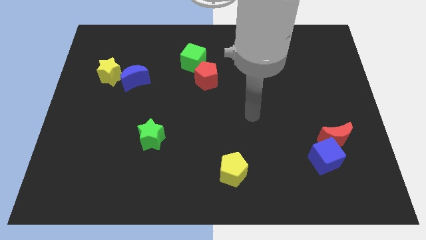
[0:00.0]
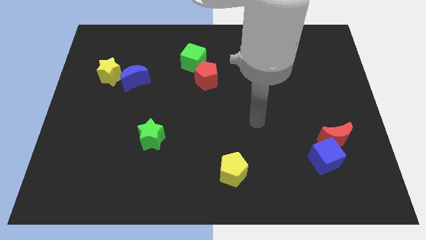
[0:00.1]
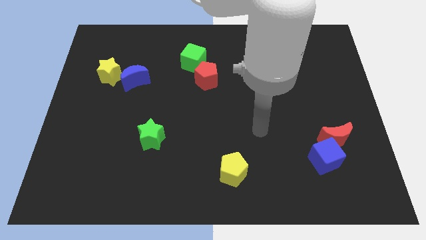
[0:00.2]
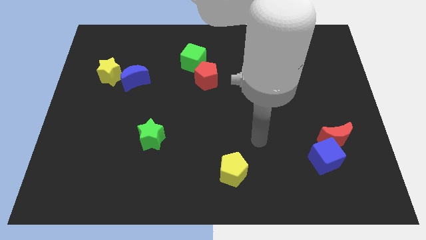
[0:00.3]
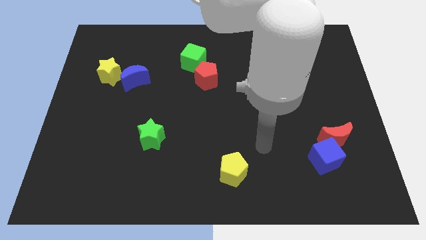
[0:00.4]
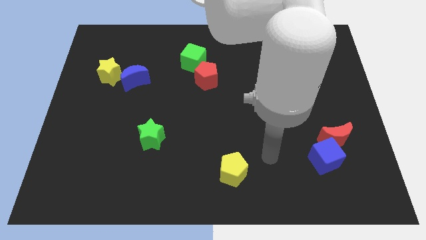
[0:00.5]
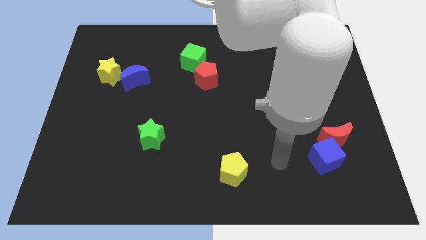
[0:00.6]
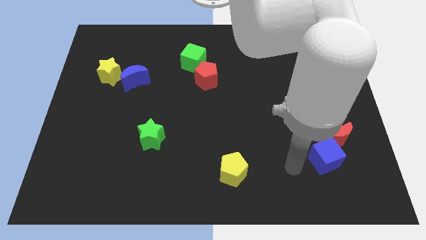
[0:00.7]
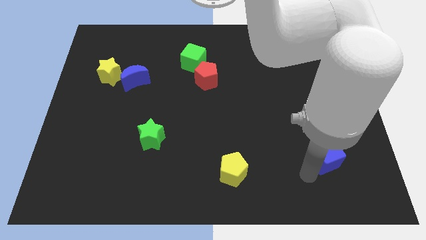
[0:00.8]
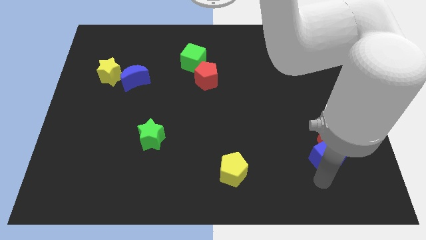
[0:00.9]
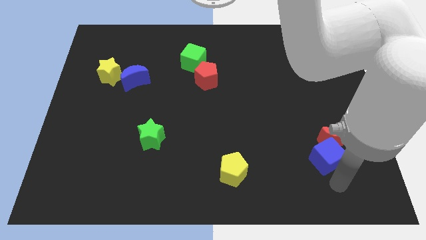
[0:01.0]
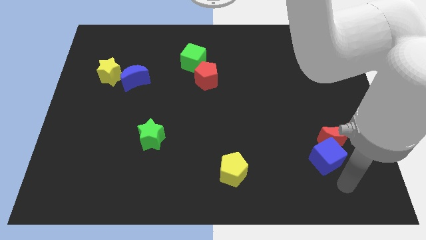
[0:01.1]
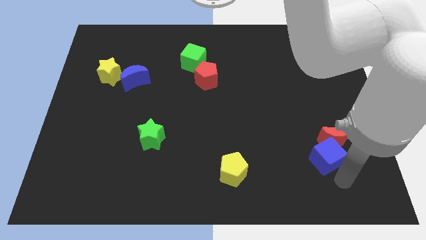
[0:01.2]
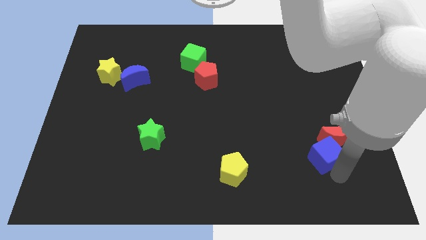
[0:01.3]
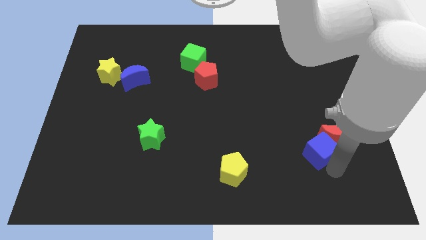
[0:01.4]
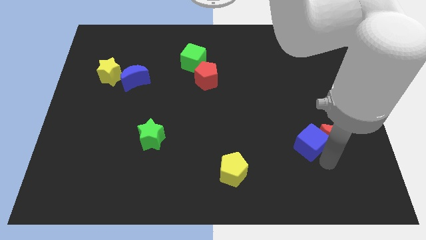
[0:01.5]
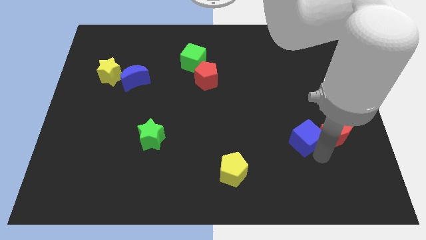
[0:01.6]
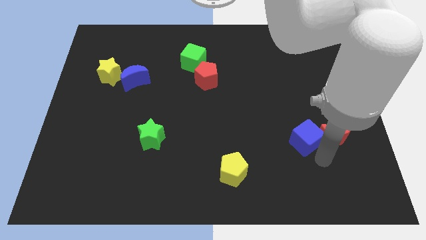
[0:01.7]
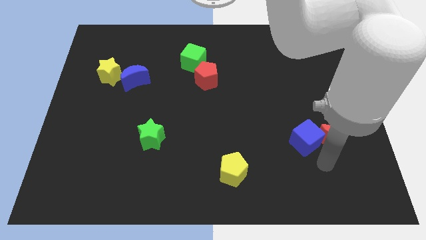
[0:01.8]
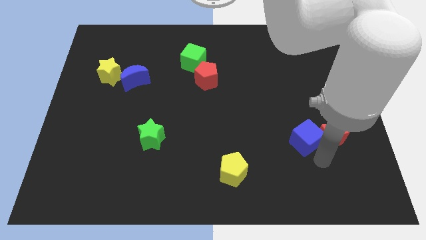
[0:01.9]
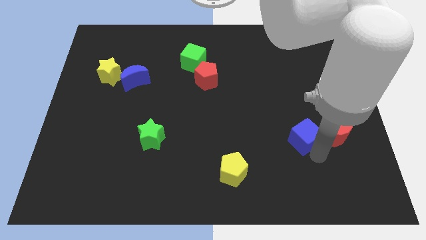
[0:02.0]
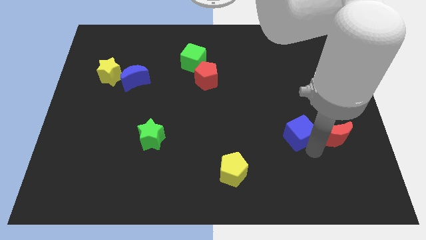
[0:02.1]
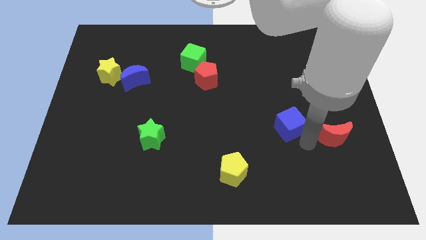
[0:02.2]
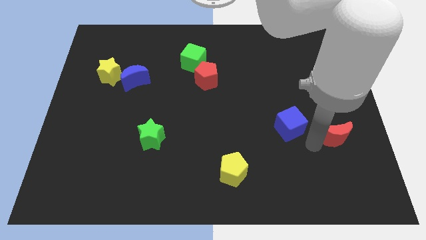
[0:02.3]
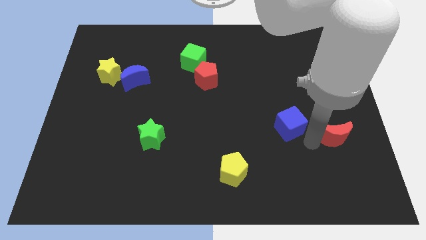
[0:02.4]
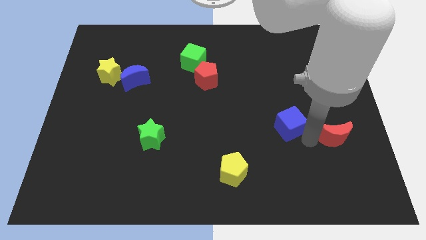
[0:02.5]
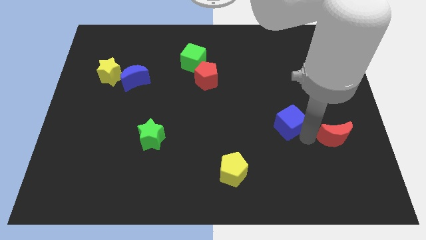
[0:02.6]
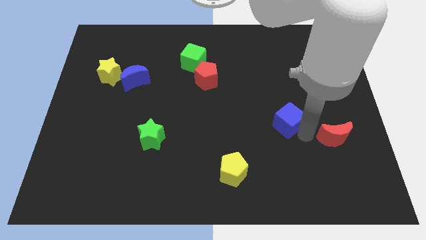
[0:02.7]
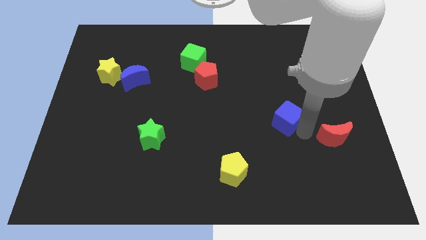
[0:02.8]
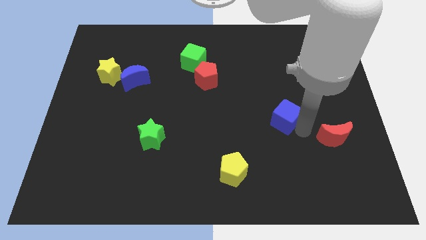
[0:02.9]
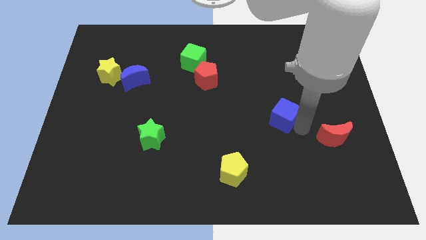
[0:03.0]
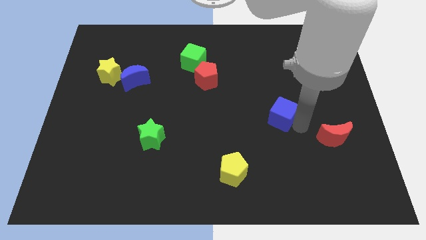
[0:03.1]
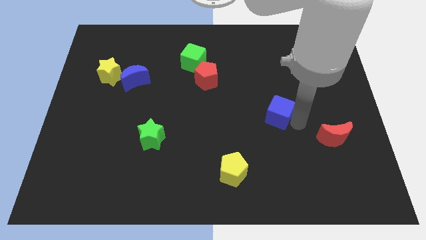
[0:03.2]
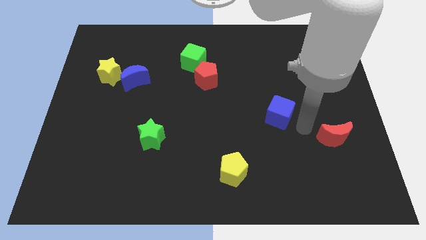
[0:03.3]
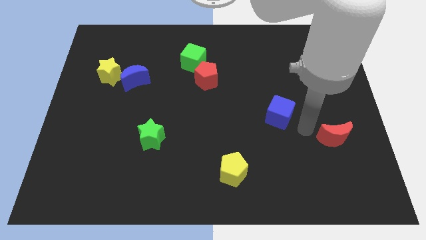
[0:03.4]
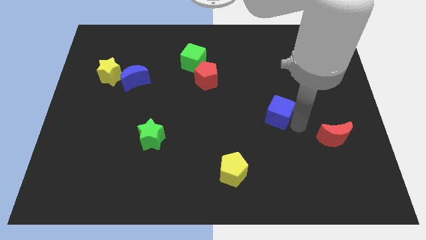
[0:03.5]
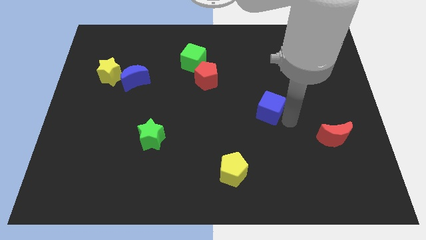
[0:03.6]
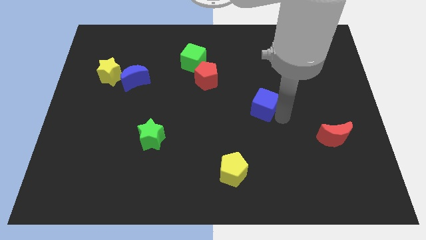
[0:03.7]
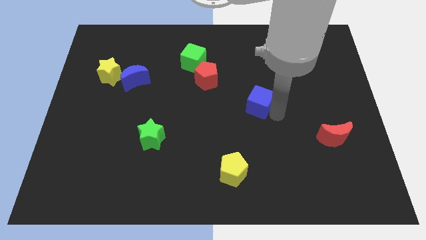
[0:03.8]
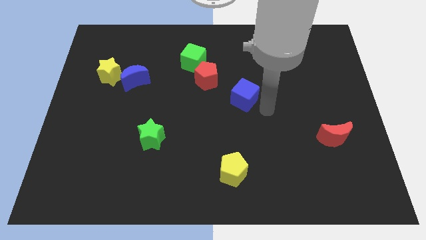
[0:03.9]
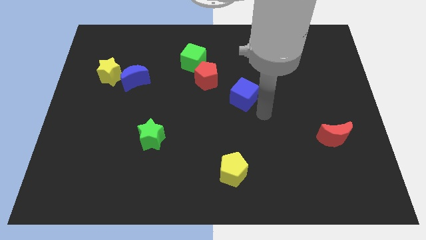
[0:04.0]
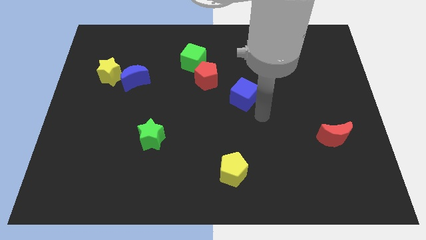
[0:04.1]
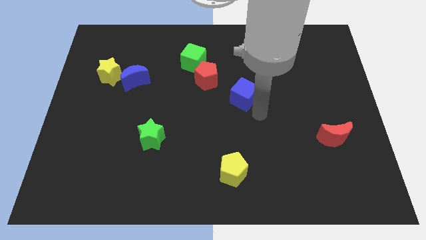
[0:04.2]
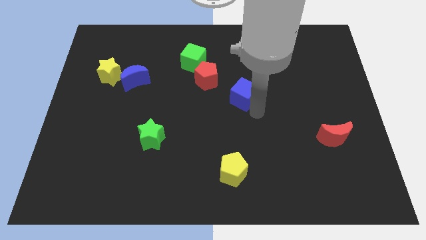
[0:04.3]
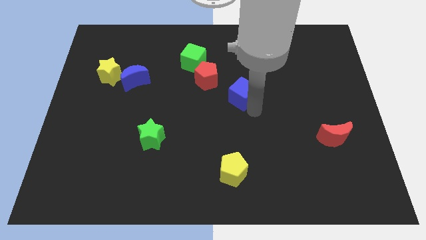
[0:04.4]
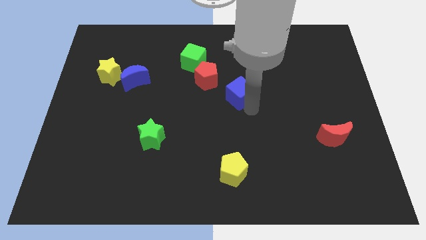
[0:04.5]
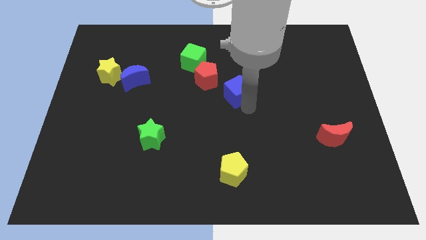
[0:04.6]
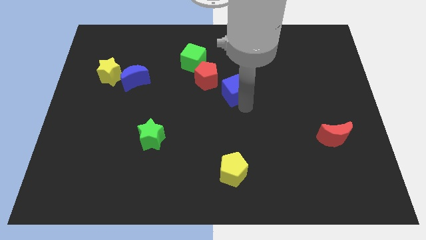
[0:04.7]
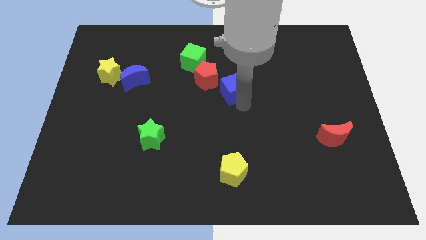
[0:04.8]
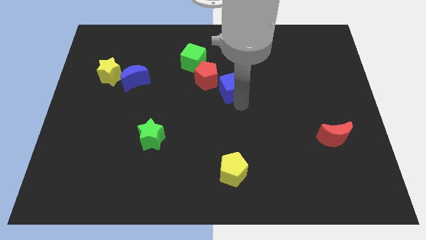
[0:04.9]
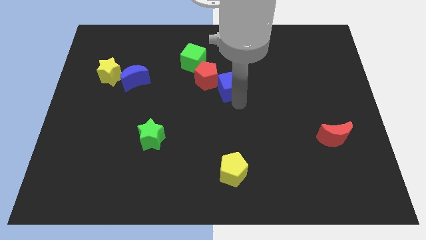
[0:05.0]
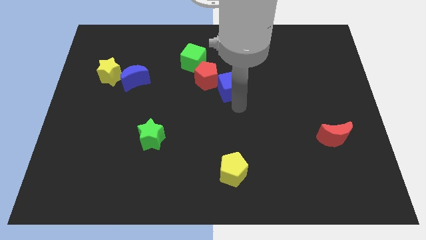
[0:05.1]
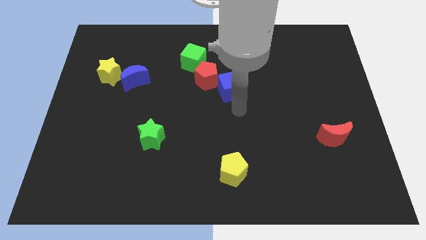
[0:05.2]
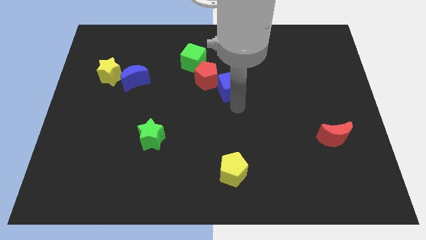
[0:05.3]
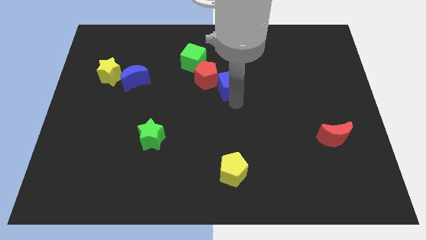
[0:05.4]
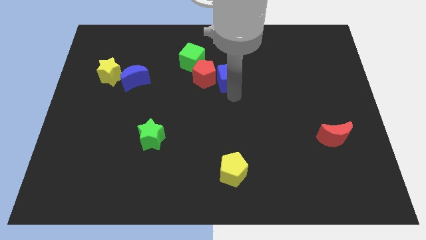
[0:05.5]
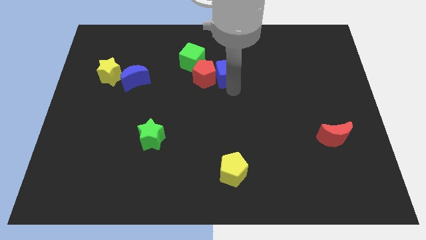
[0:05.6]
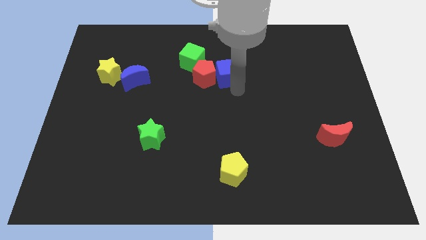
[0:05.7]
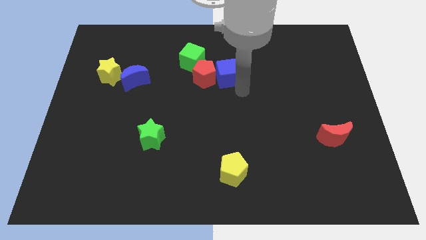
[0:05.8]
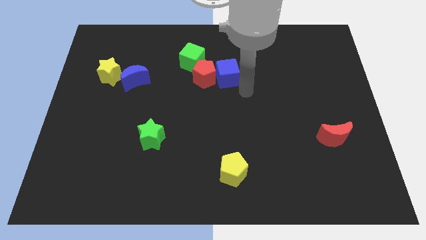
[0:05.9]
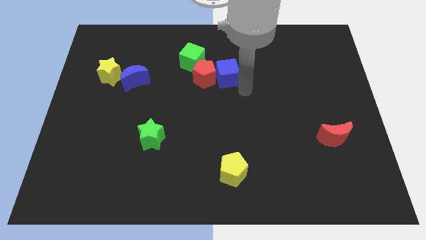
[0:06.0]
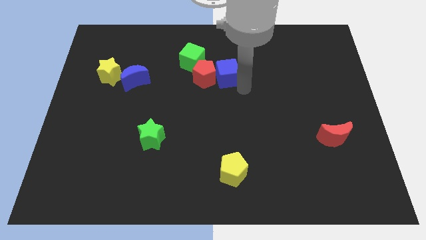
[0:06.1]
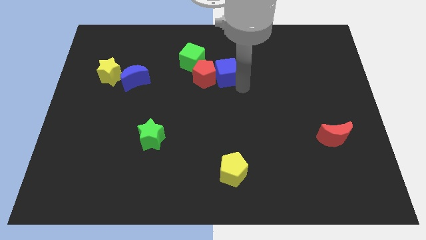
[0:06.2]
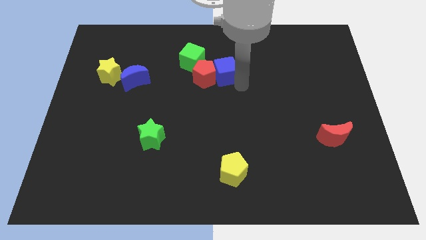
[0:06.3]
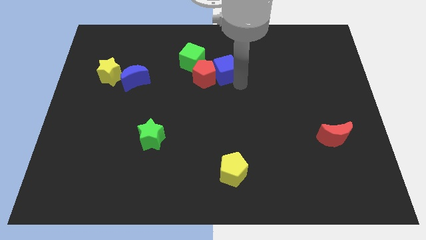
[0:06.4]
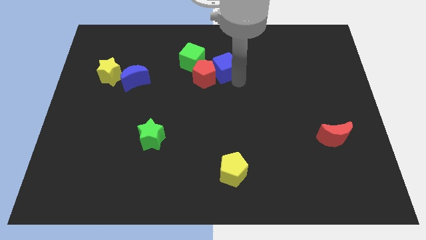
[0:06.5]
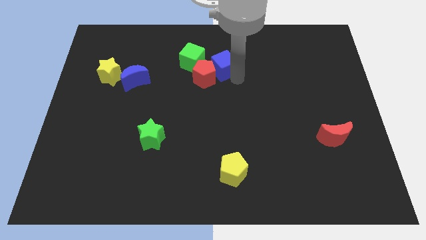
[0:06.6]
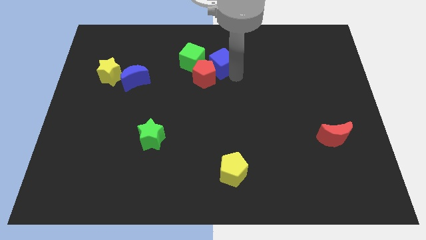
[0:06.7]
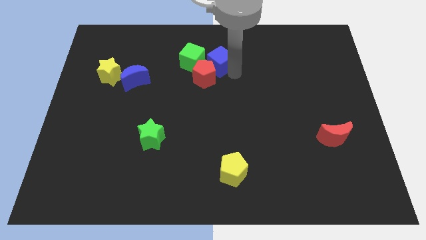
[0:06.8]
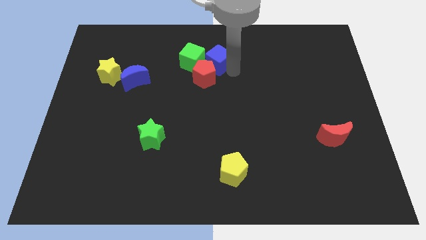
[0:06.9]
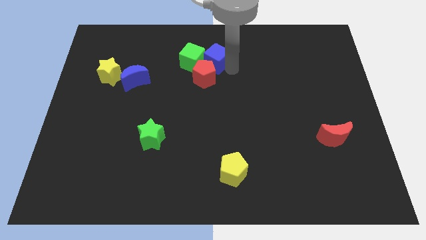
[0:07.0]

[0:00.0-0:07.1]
push the blue cube towards the green cube

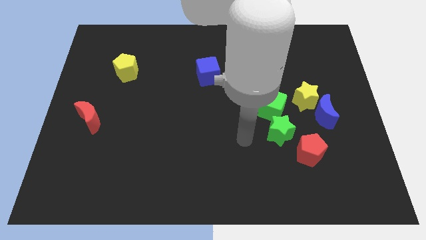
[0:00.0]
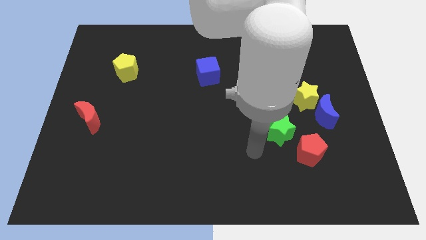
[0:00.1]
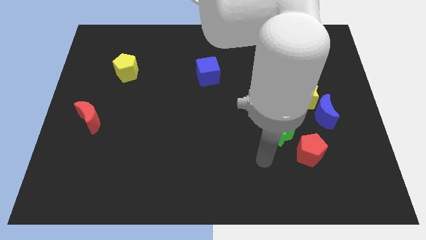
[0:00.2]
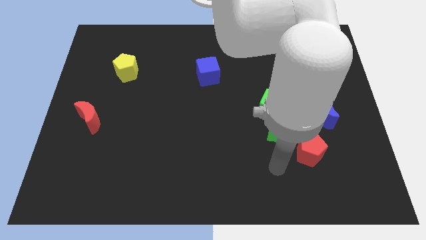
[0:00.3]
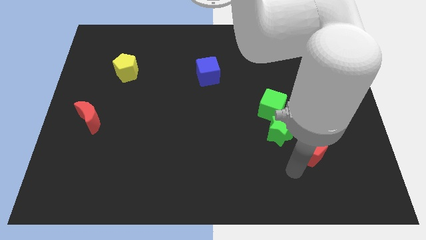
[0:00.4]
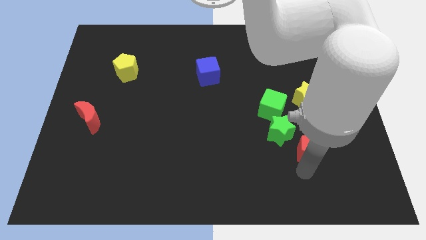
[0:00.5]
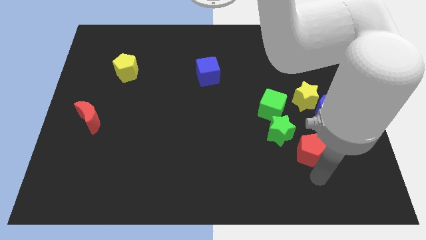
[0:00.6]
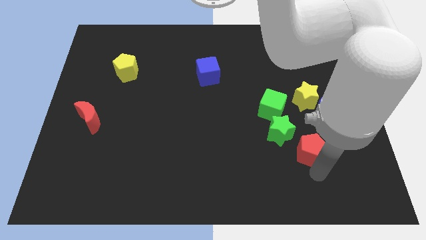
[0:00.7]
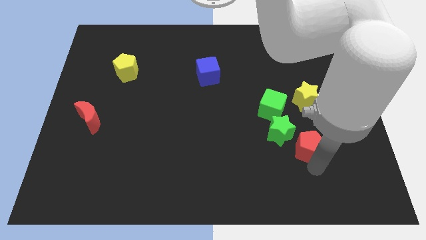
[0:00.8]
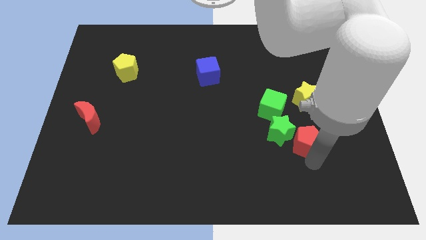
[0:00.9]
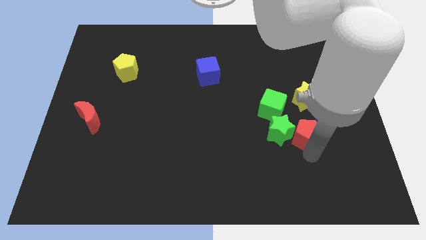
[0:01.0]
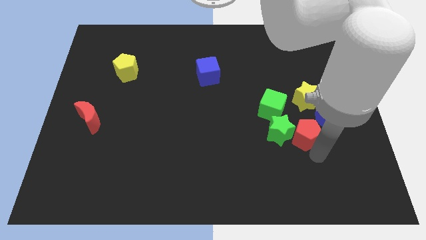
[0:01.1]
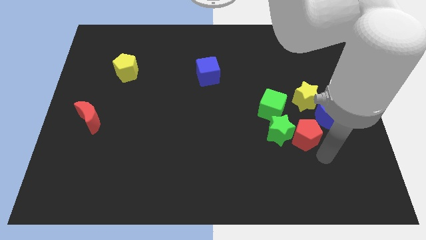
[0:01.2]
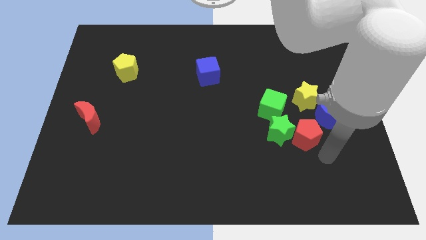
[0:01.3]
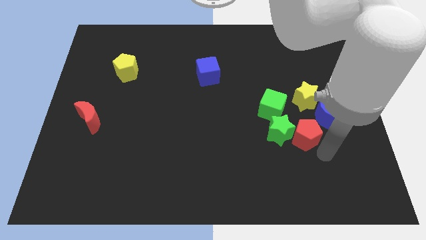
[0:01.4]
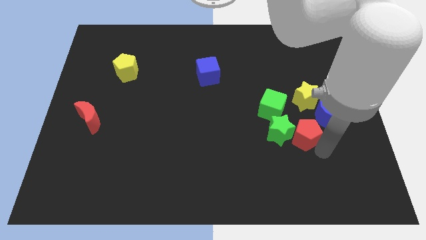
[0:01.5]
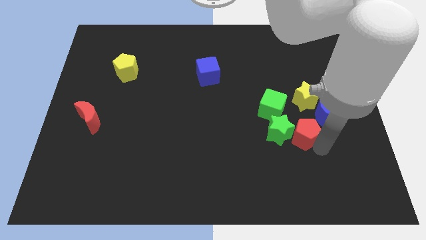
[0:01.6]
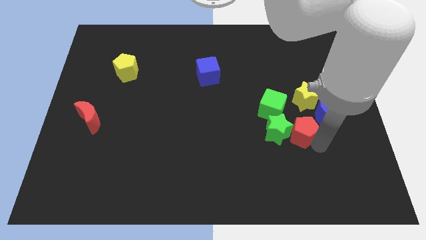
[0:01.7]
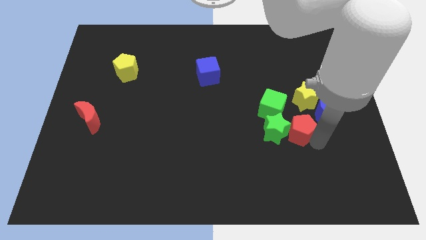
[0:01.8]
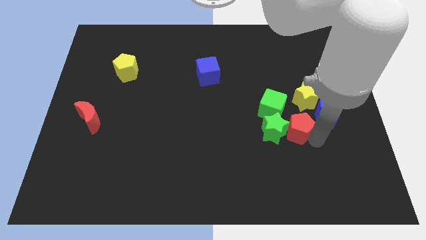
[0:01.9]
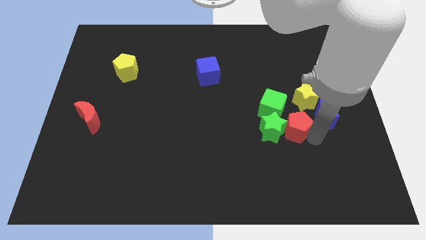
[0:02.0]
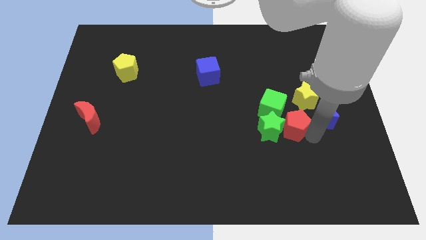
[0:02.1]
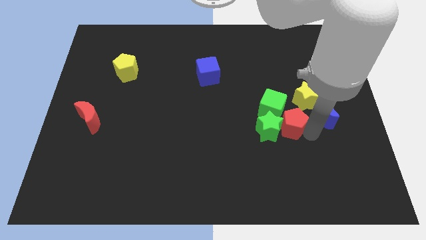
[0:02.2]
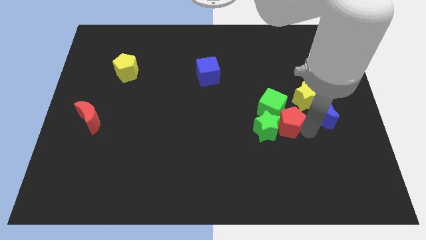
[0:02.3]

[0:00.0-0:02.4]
slide the red pentagon towards the green cube
